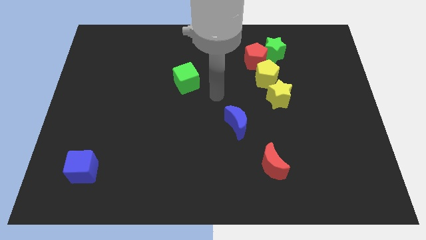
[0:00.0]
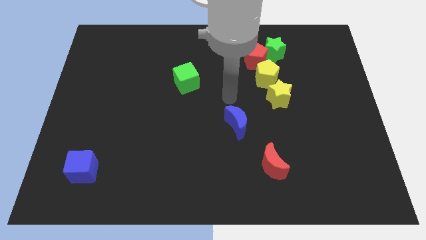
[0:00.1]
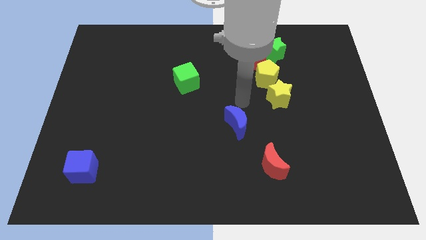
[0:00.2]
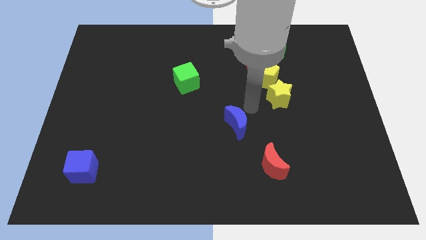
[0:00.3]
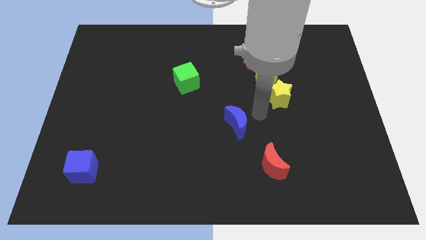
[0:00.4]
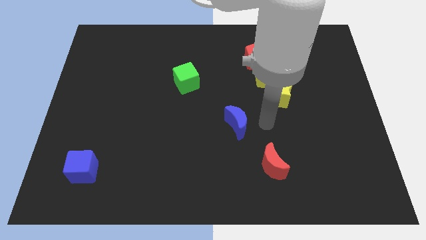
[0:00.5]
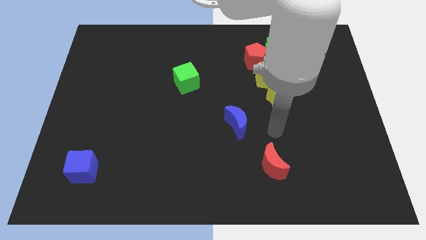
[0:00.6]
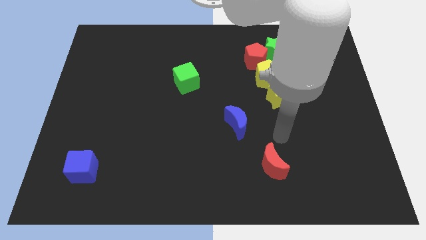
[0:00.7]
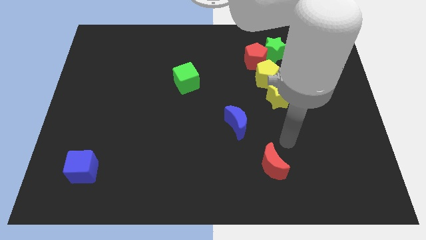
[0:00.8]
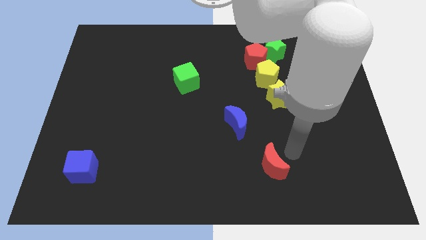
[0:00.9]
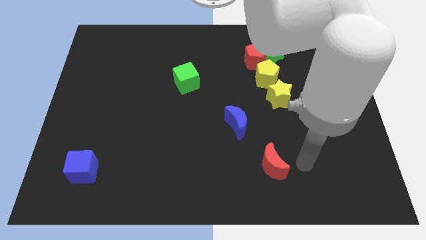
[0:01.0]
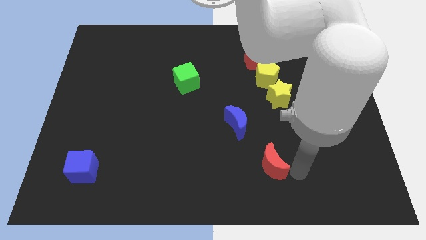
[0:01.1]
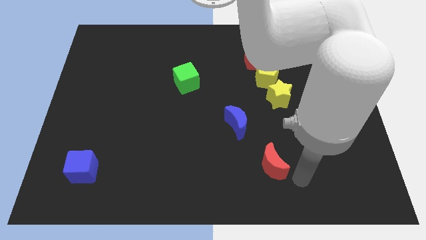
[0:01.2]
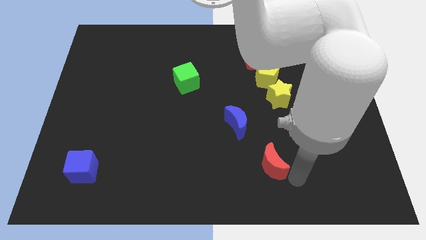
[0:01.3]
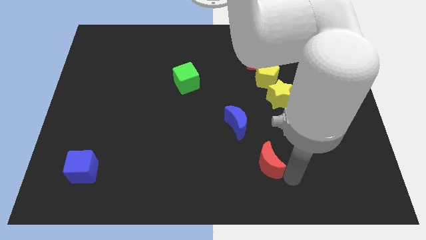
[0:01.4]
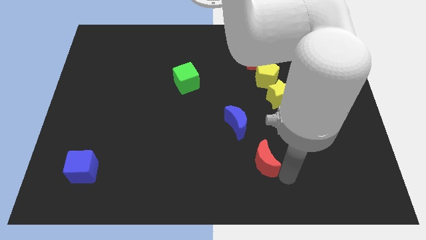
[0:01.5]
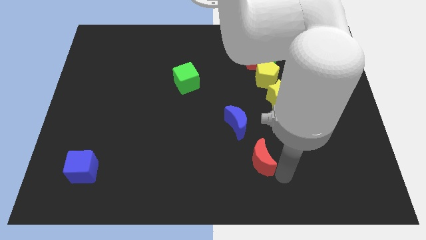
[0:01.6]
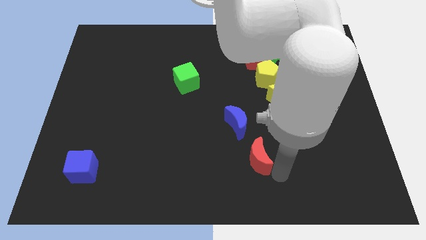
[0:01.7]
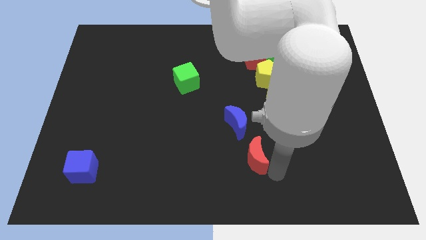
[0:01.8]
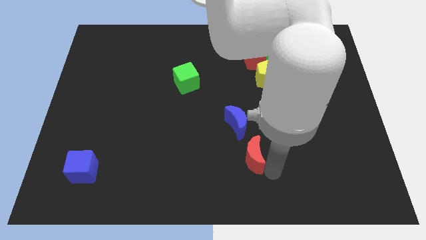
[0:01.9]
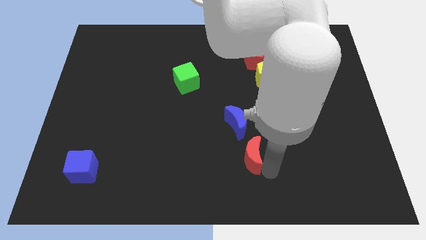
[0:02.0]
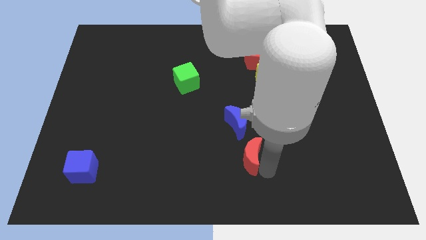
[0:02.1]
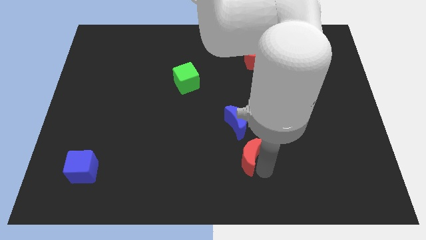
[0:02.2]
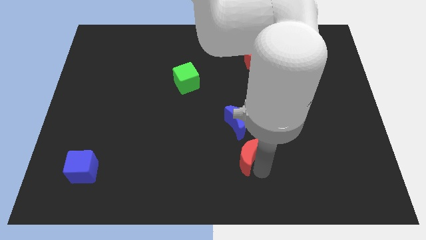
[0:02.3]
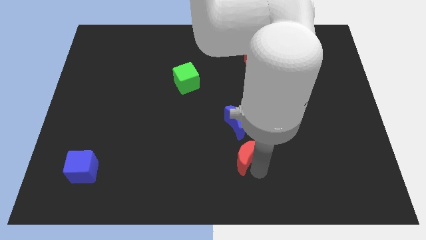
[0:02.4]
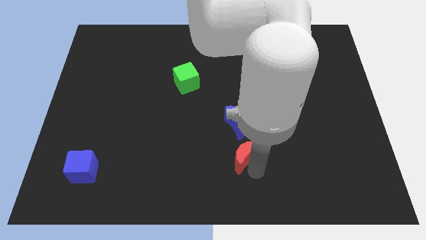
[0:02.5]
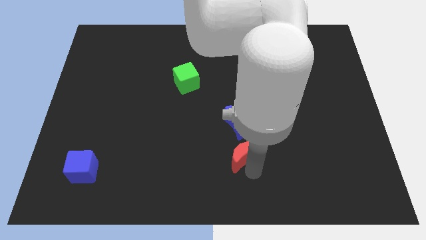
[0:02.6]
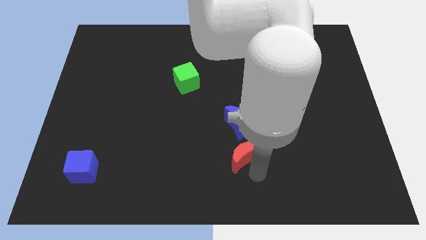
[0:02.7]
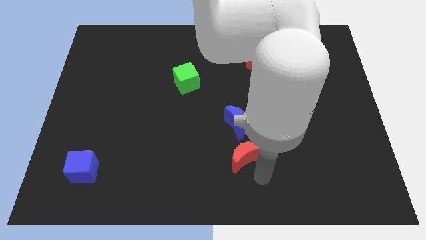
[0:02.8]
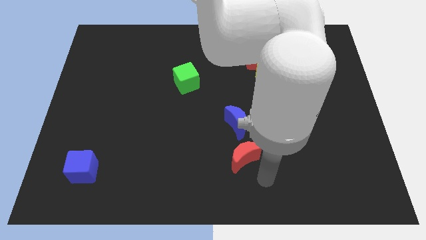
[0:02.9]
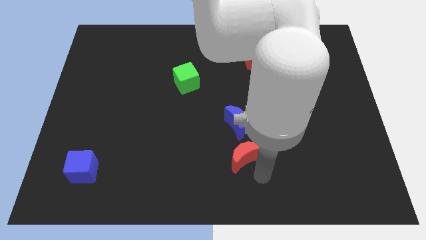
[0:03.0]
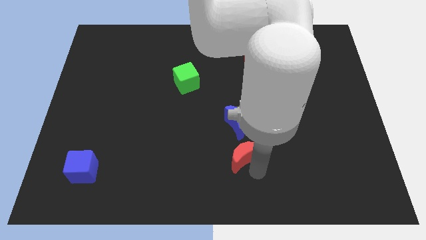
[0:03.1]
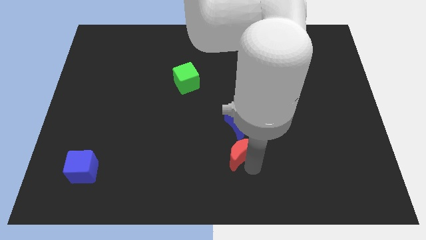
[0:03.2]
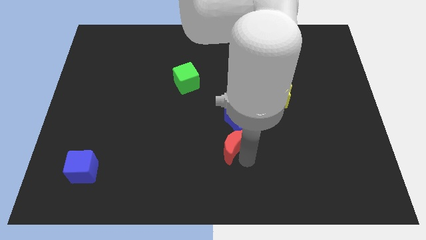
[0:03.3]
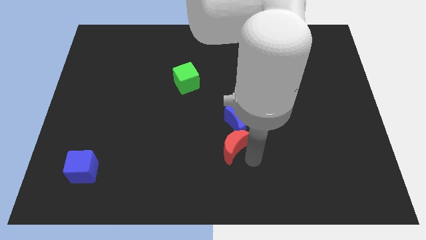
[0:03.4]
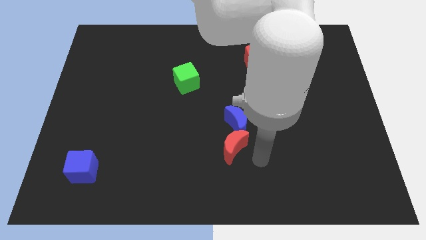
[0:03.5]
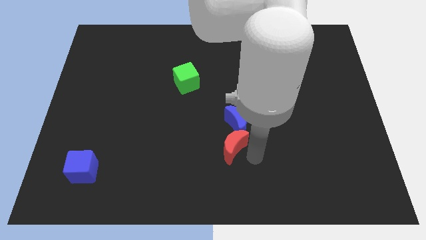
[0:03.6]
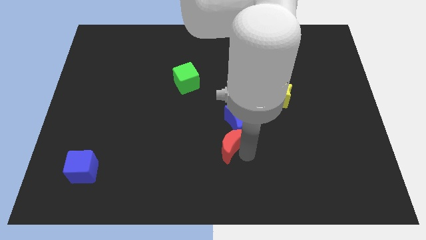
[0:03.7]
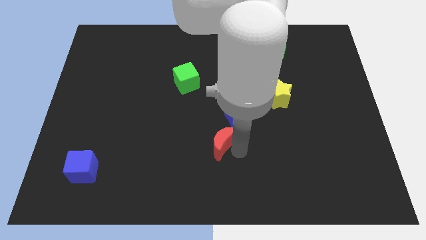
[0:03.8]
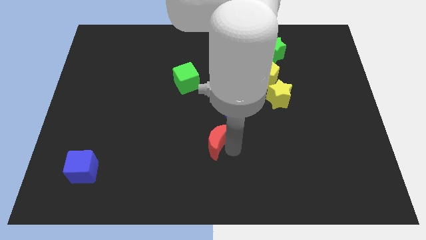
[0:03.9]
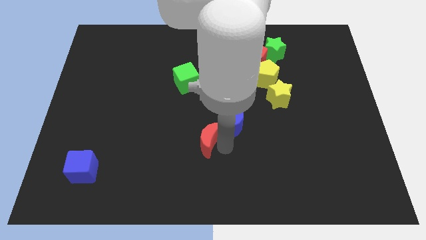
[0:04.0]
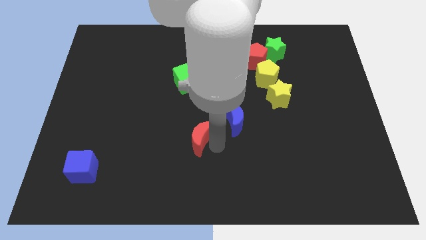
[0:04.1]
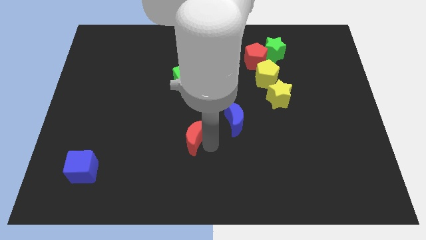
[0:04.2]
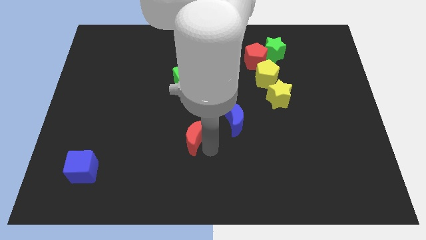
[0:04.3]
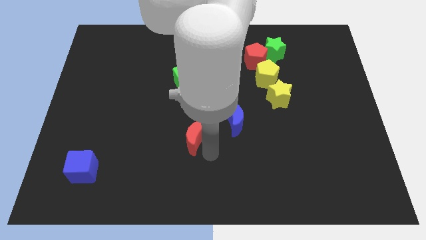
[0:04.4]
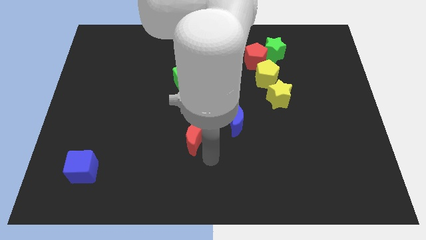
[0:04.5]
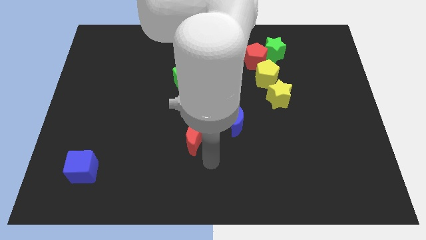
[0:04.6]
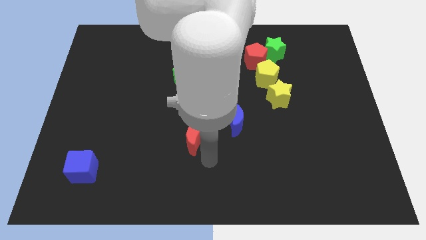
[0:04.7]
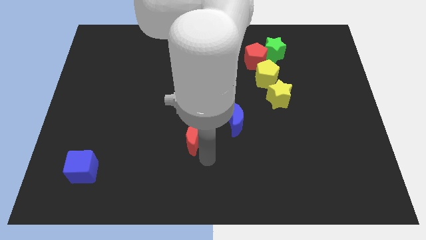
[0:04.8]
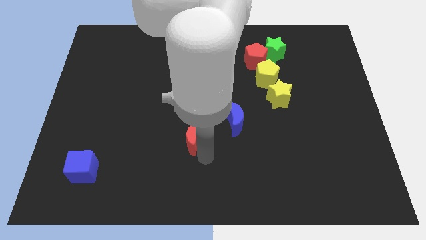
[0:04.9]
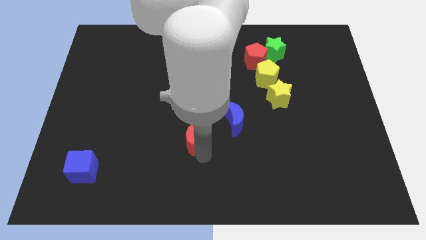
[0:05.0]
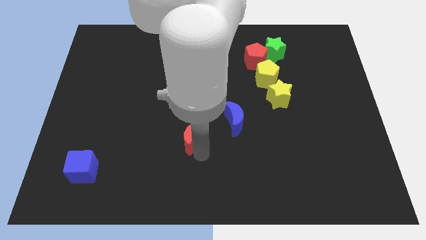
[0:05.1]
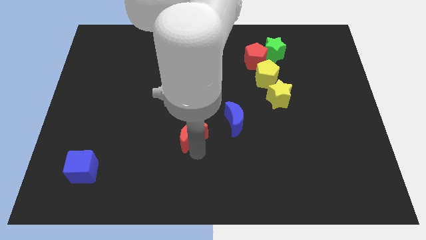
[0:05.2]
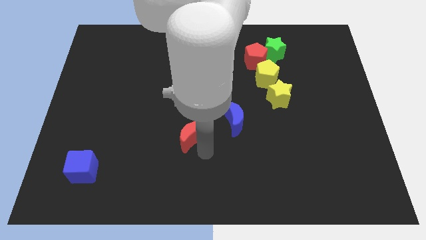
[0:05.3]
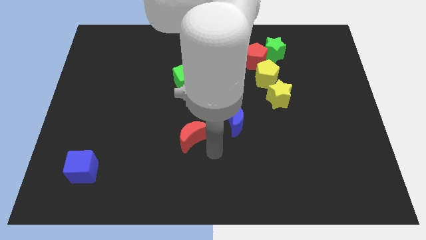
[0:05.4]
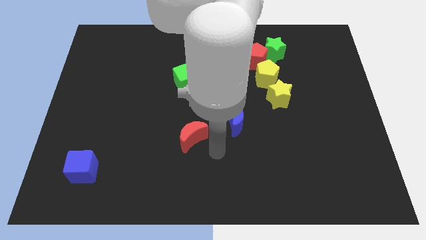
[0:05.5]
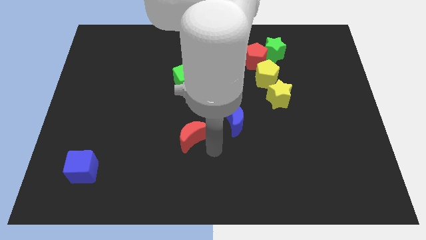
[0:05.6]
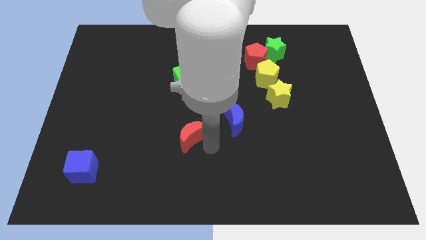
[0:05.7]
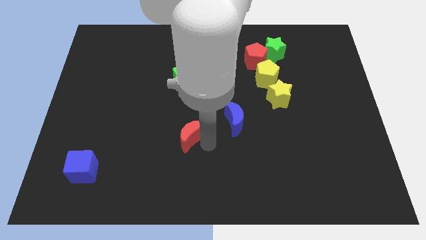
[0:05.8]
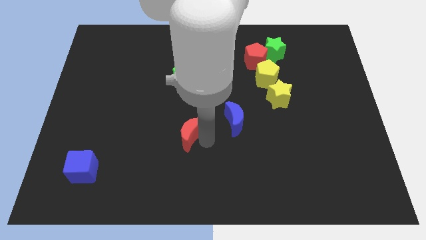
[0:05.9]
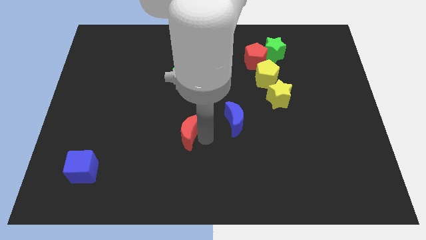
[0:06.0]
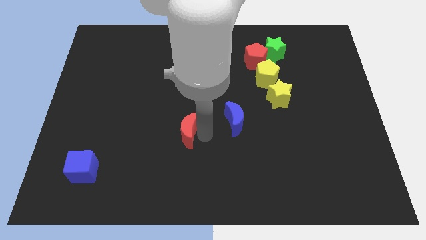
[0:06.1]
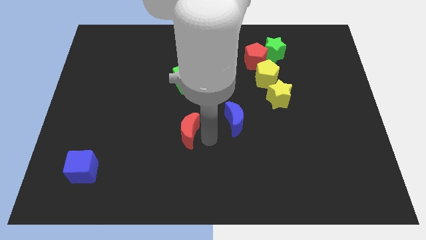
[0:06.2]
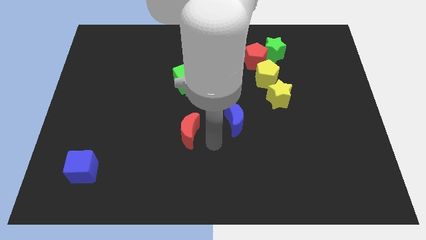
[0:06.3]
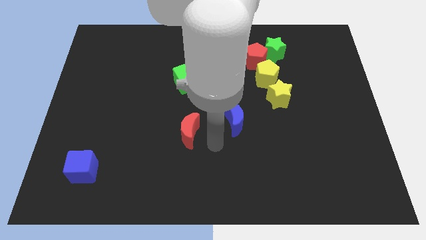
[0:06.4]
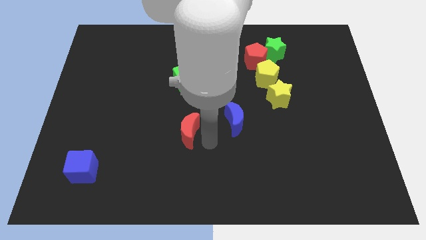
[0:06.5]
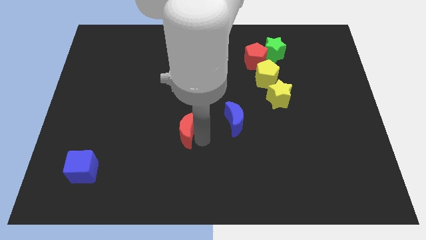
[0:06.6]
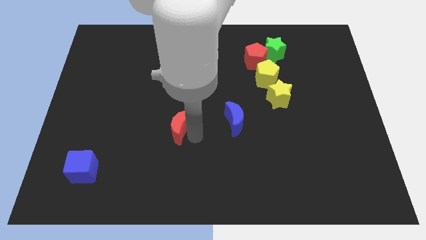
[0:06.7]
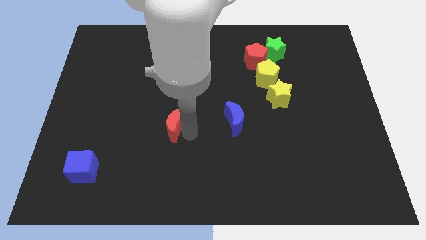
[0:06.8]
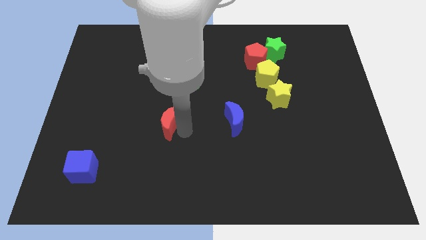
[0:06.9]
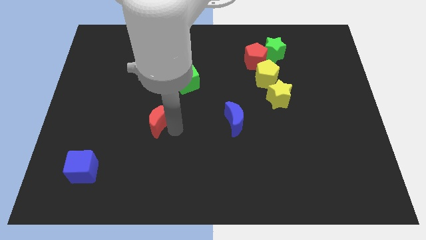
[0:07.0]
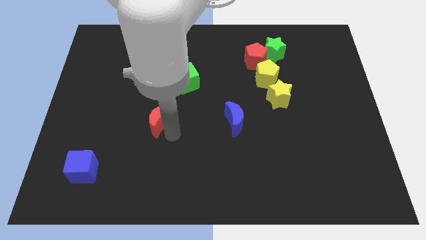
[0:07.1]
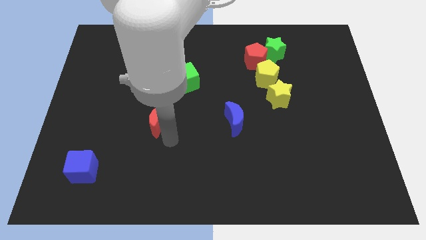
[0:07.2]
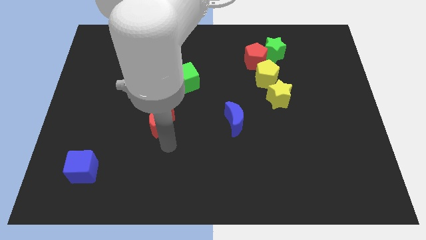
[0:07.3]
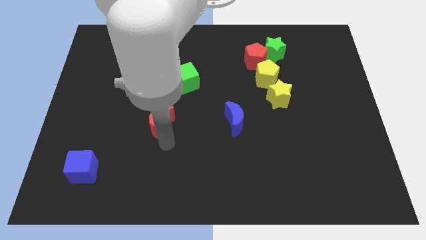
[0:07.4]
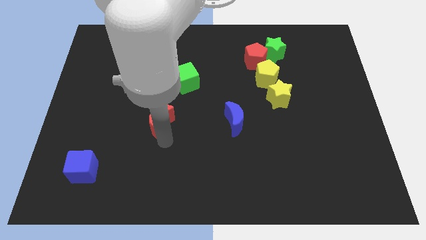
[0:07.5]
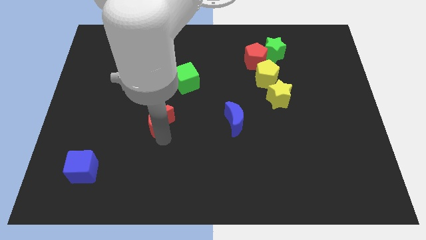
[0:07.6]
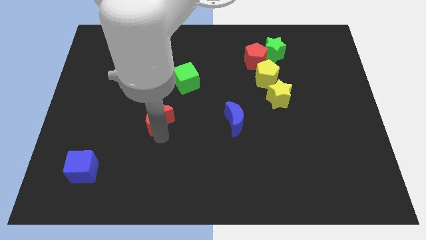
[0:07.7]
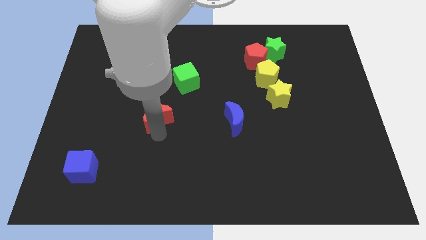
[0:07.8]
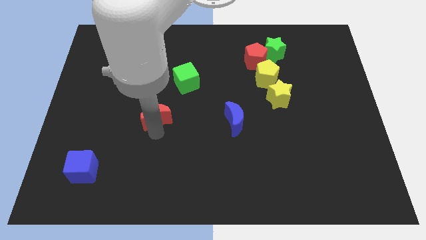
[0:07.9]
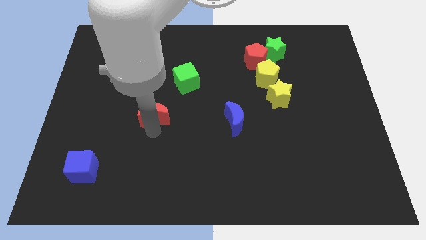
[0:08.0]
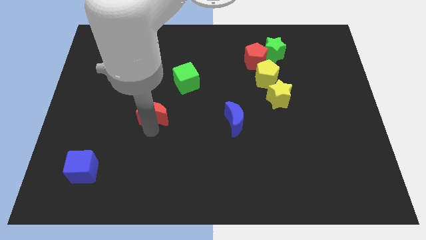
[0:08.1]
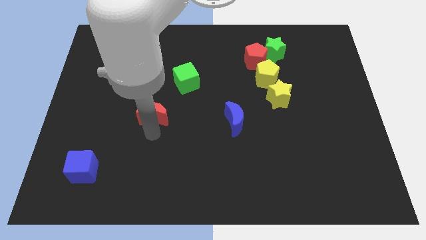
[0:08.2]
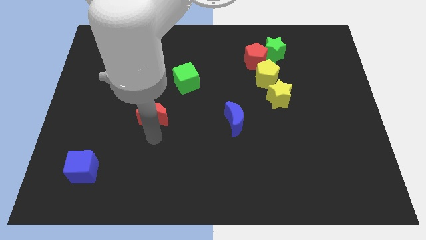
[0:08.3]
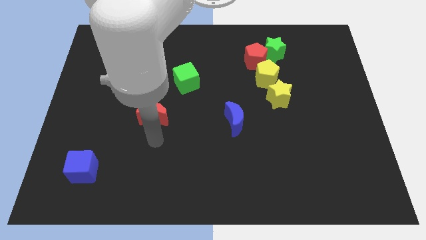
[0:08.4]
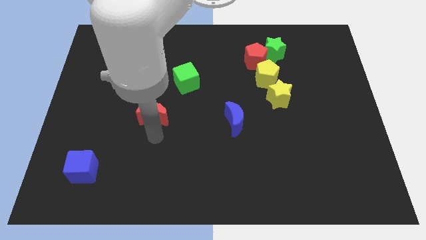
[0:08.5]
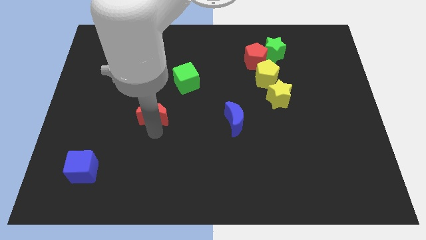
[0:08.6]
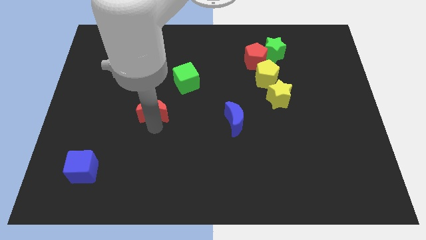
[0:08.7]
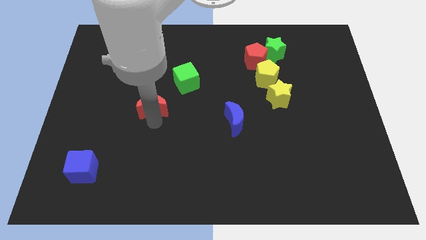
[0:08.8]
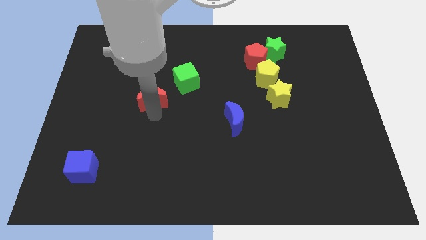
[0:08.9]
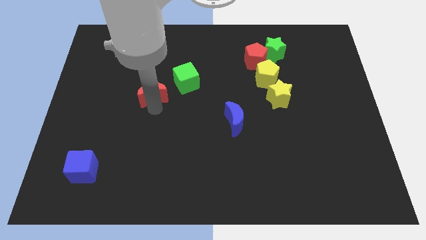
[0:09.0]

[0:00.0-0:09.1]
put the red moon just left of the green cube
